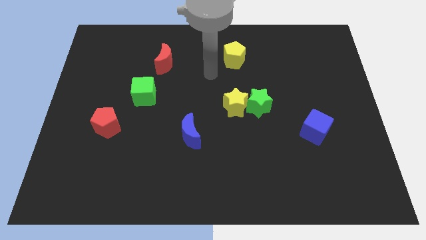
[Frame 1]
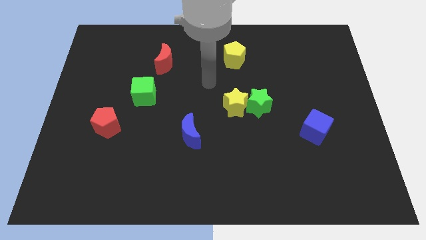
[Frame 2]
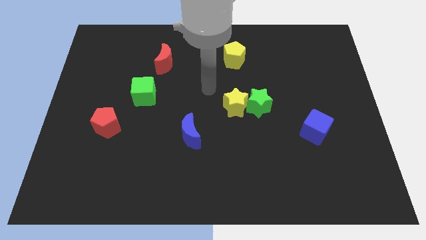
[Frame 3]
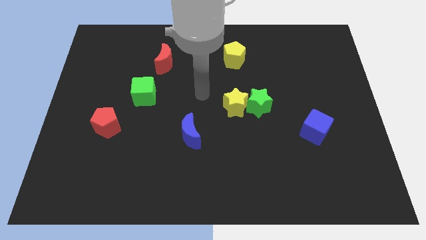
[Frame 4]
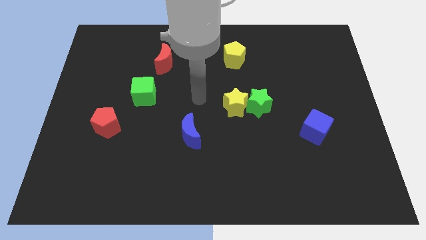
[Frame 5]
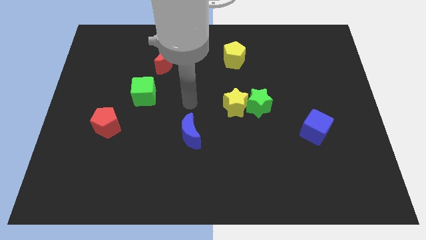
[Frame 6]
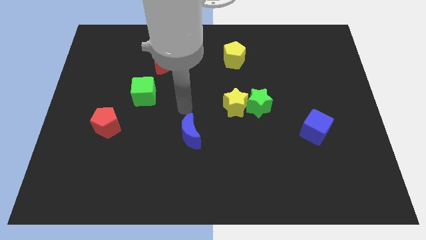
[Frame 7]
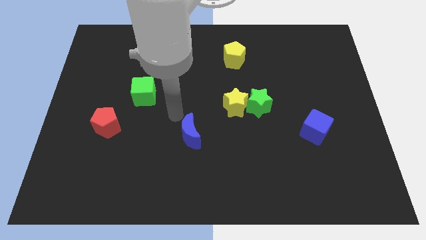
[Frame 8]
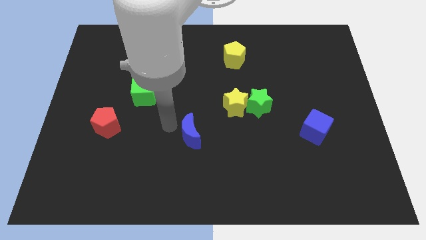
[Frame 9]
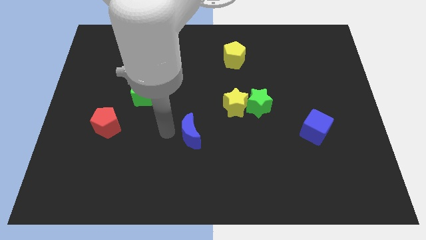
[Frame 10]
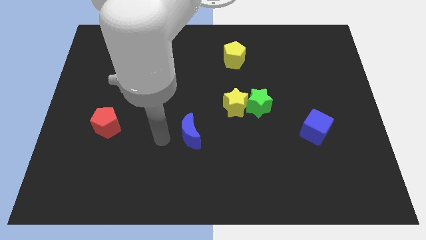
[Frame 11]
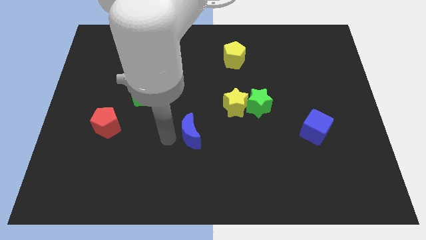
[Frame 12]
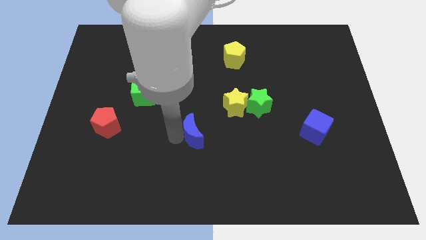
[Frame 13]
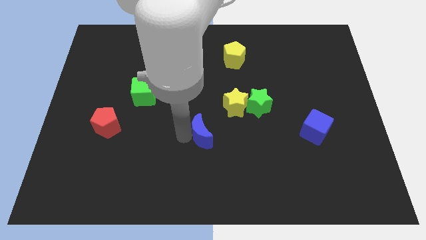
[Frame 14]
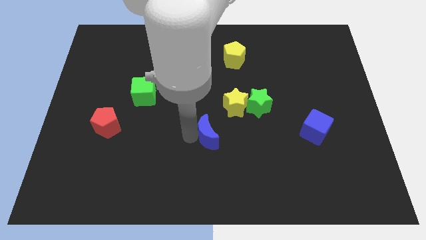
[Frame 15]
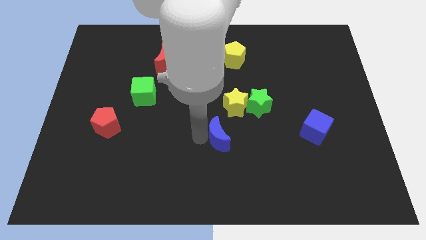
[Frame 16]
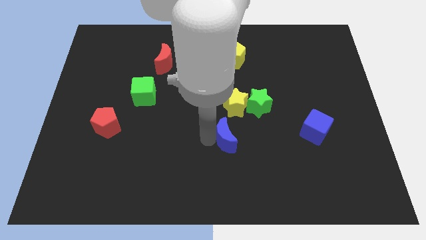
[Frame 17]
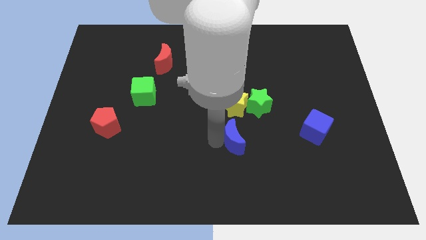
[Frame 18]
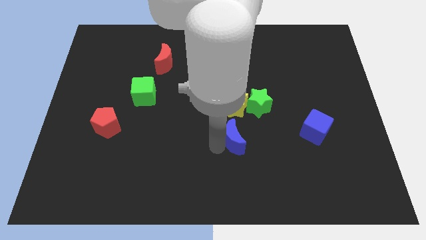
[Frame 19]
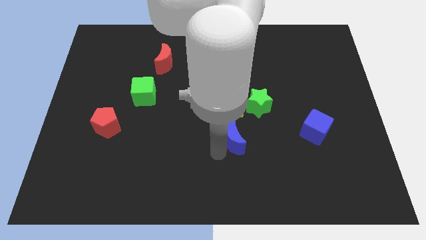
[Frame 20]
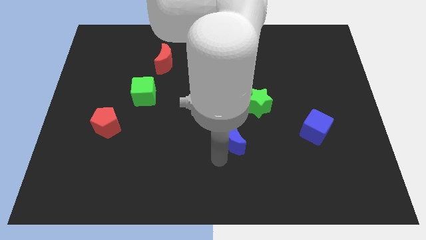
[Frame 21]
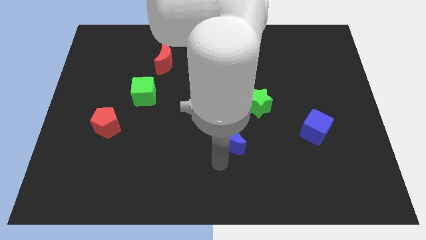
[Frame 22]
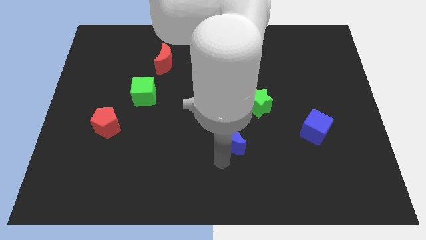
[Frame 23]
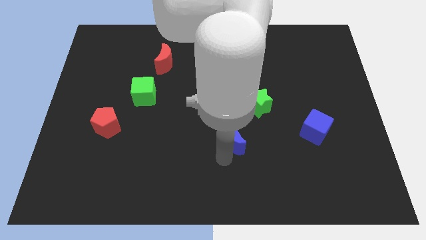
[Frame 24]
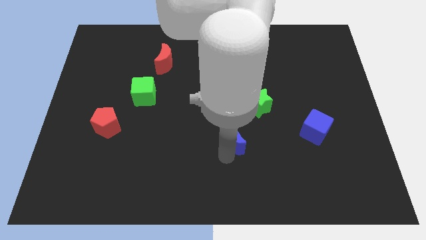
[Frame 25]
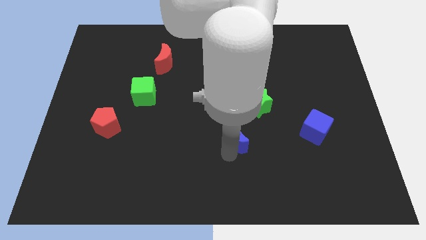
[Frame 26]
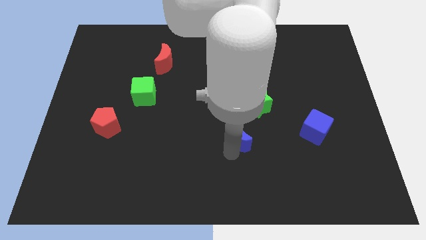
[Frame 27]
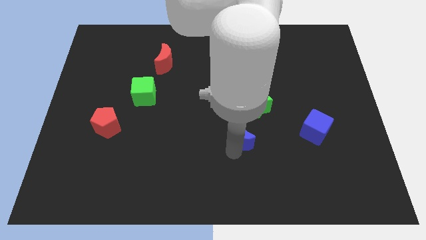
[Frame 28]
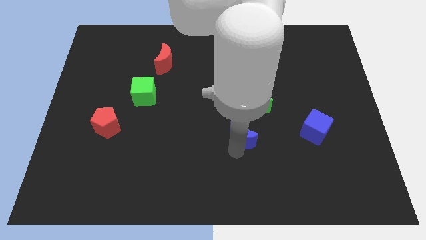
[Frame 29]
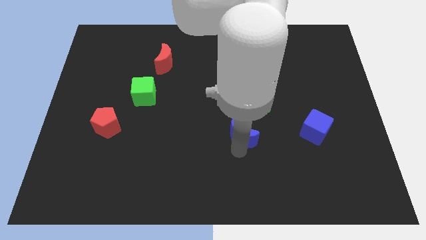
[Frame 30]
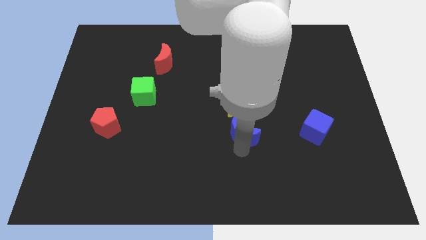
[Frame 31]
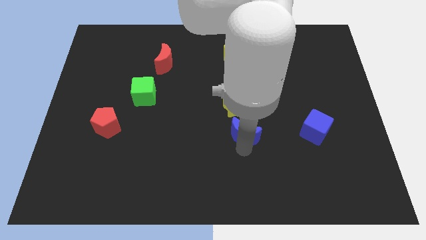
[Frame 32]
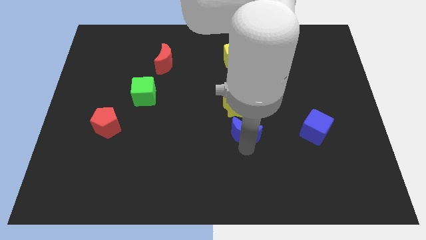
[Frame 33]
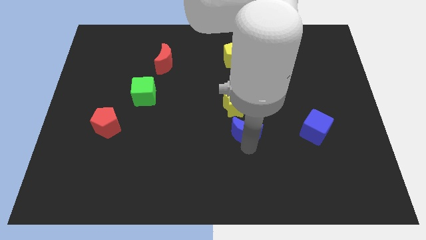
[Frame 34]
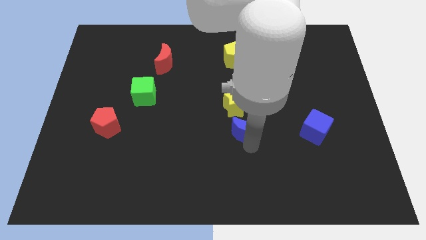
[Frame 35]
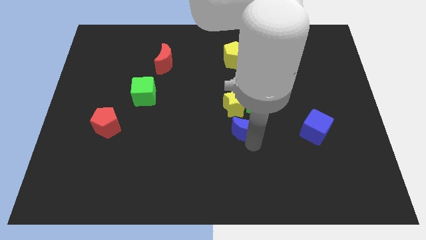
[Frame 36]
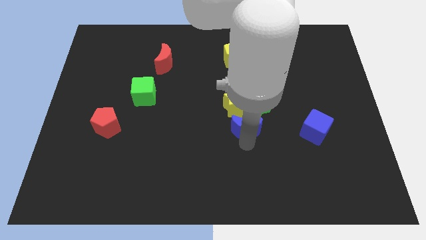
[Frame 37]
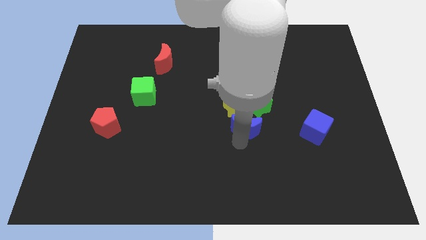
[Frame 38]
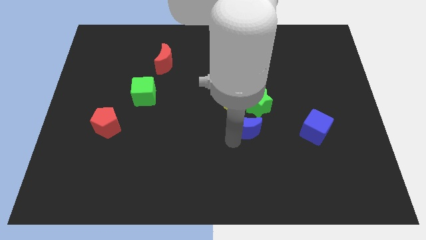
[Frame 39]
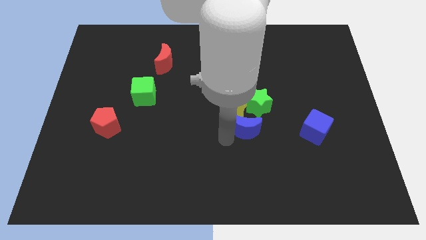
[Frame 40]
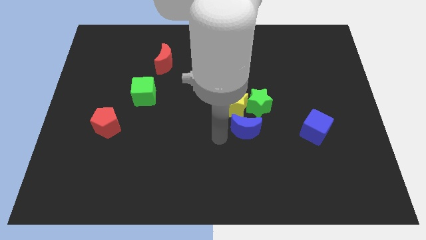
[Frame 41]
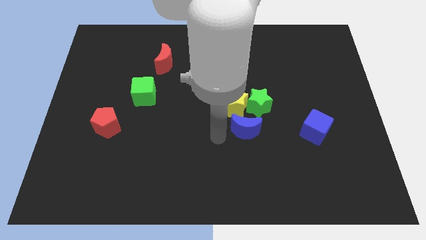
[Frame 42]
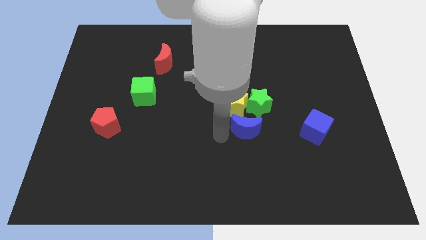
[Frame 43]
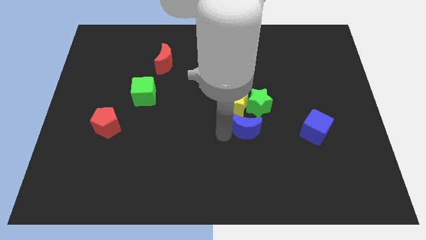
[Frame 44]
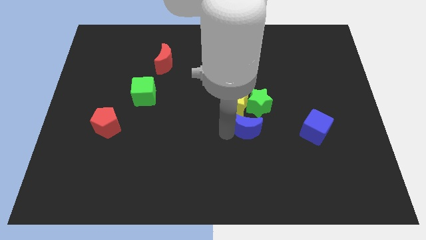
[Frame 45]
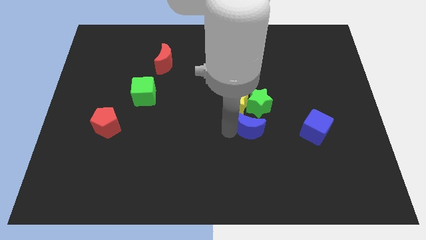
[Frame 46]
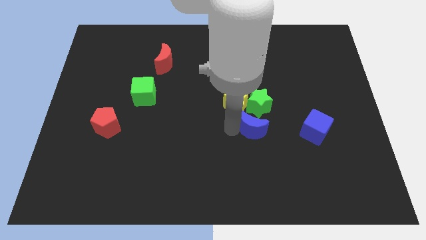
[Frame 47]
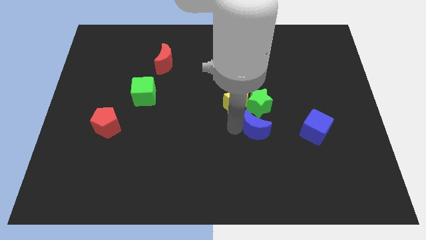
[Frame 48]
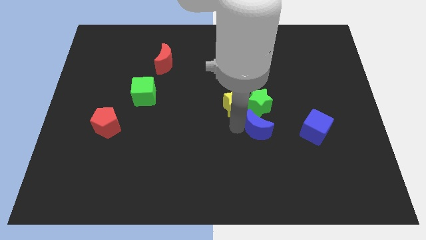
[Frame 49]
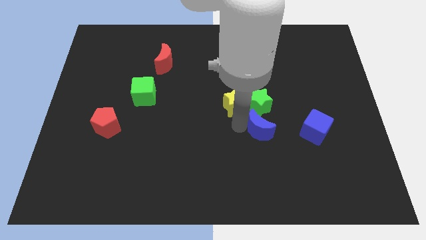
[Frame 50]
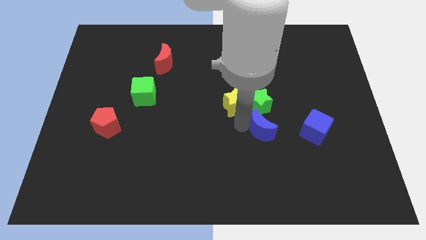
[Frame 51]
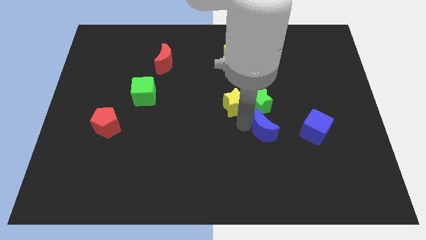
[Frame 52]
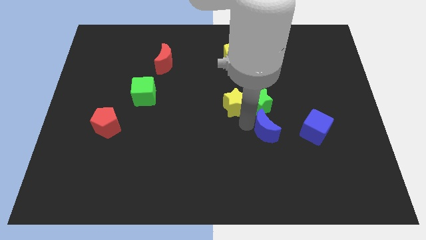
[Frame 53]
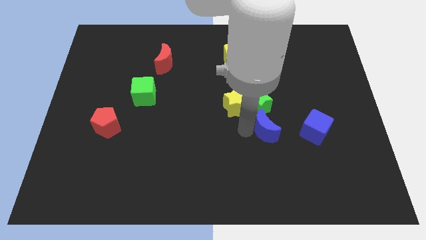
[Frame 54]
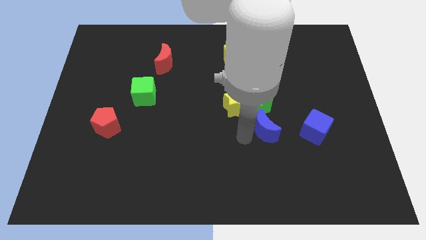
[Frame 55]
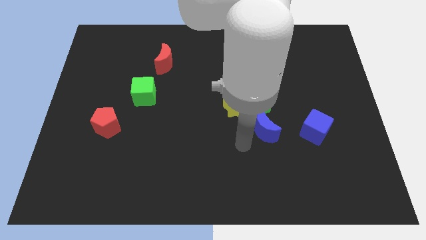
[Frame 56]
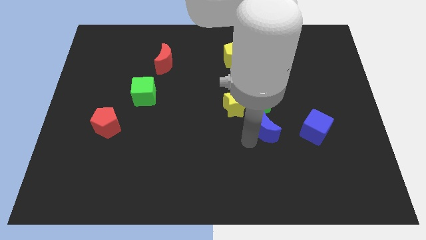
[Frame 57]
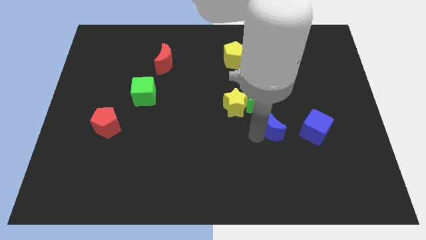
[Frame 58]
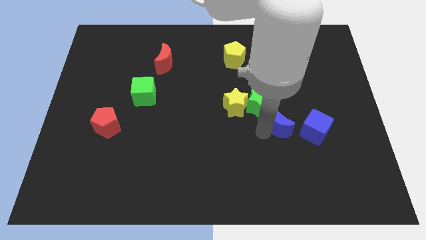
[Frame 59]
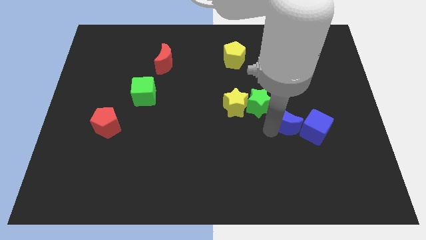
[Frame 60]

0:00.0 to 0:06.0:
put the blue moon to the top left side of the blue cube

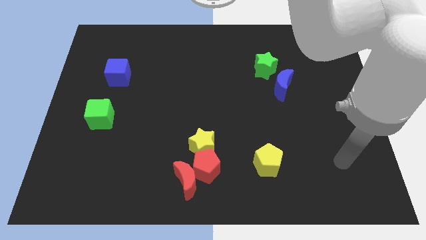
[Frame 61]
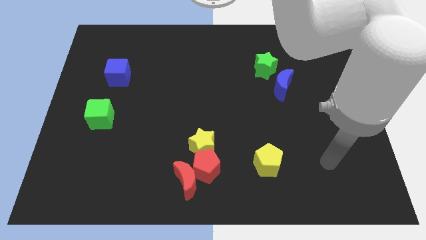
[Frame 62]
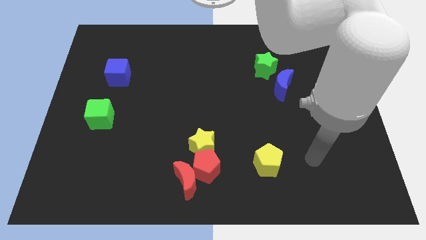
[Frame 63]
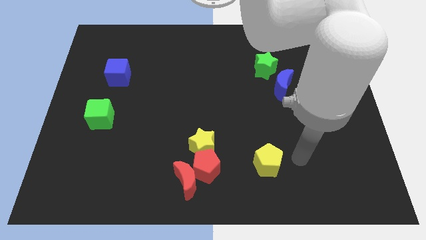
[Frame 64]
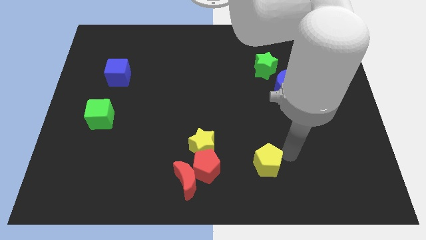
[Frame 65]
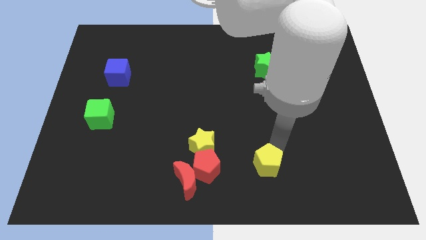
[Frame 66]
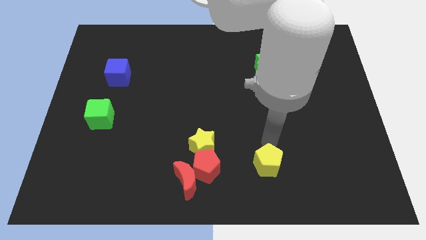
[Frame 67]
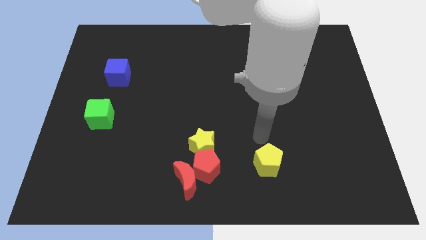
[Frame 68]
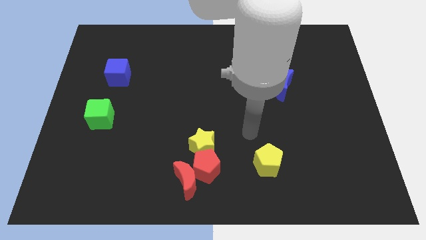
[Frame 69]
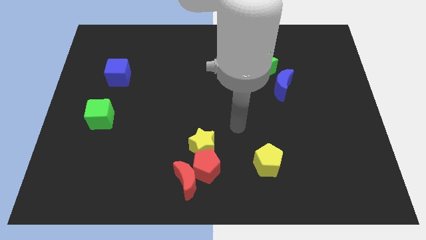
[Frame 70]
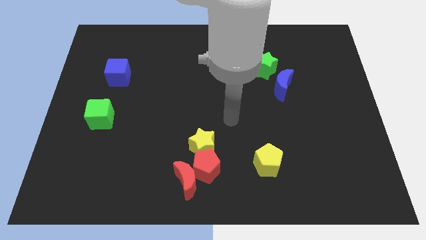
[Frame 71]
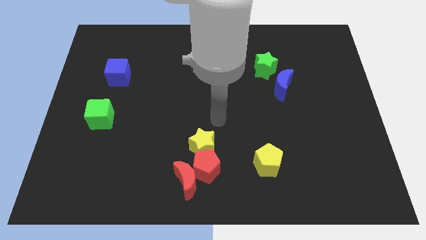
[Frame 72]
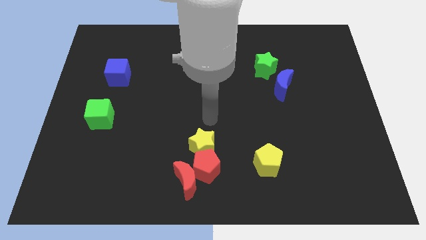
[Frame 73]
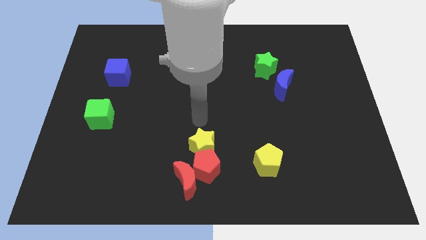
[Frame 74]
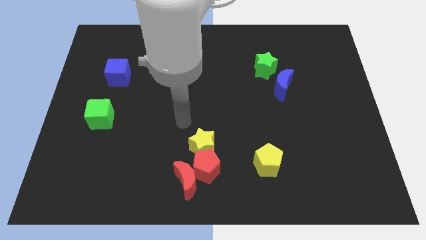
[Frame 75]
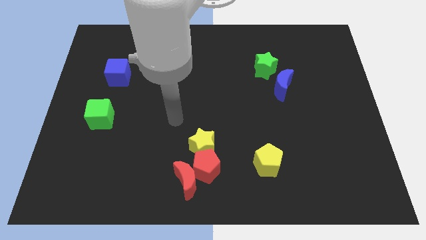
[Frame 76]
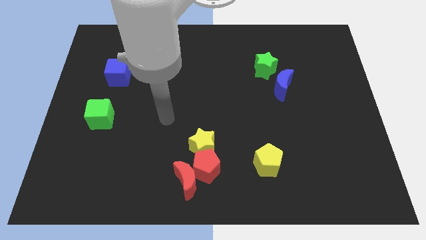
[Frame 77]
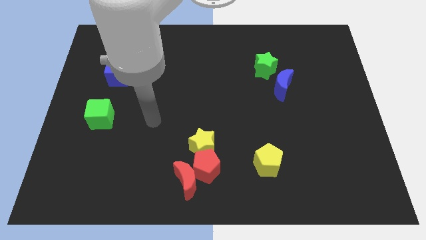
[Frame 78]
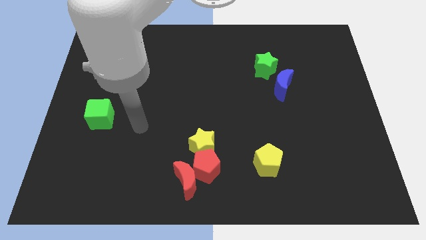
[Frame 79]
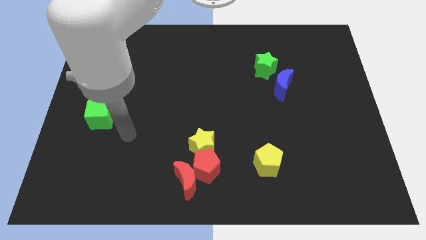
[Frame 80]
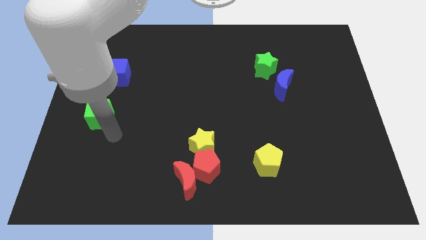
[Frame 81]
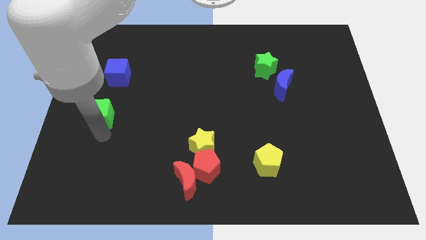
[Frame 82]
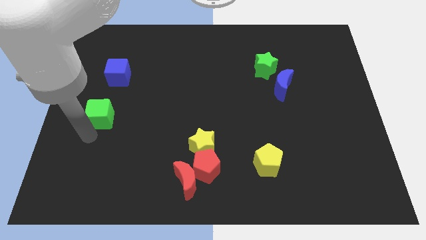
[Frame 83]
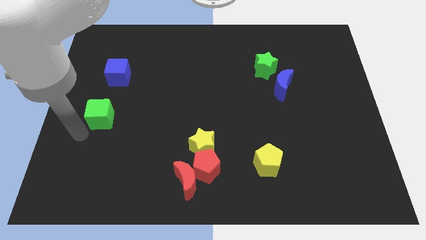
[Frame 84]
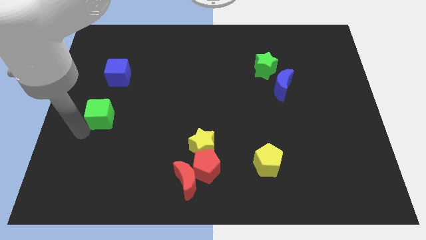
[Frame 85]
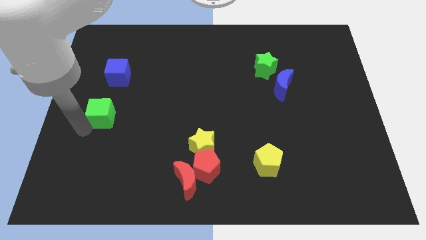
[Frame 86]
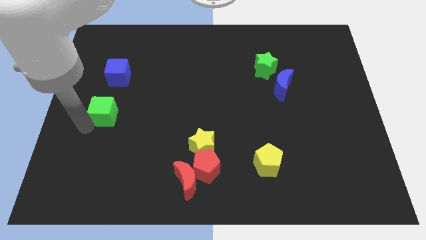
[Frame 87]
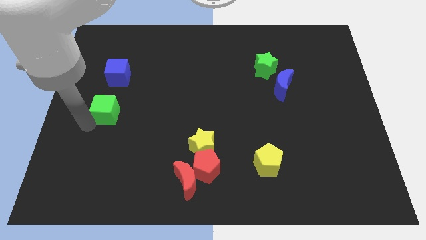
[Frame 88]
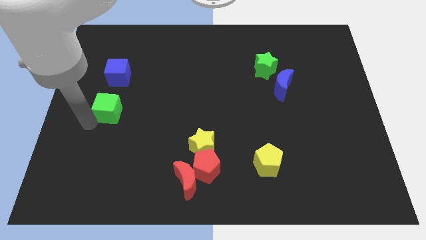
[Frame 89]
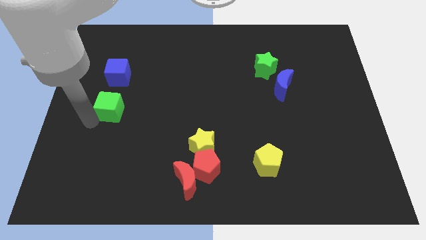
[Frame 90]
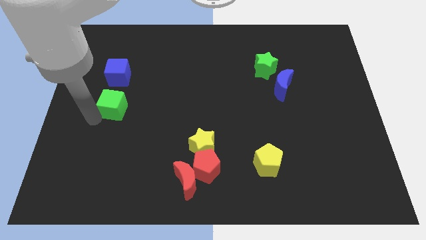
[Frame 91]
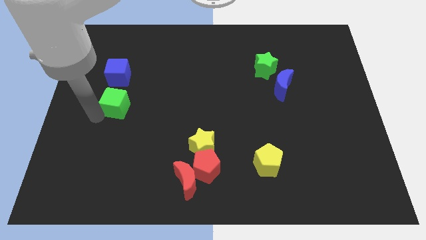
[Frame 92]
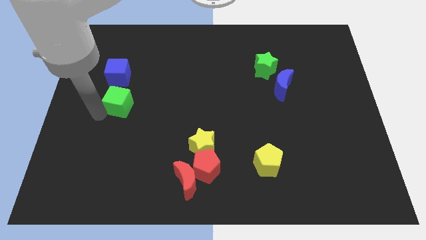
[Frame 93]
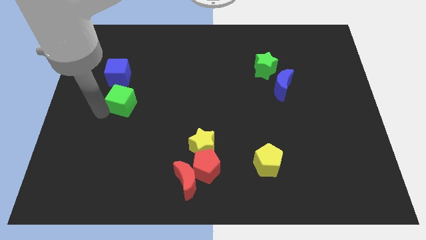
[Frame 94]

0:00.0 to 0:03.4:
slide the green cube to the bottom right side of the blue cube
